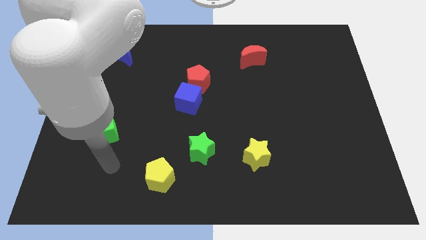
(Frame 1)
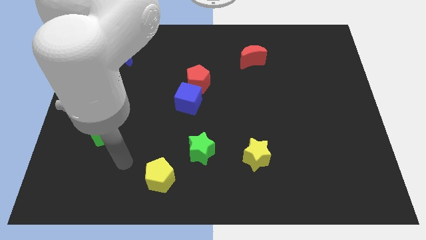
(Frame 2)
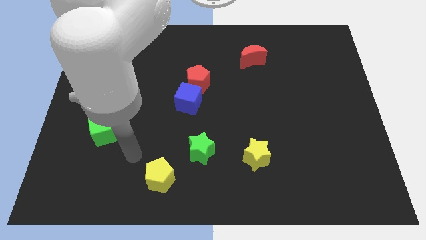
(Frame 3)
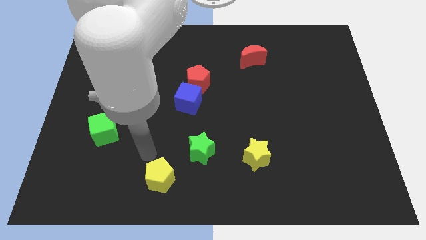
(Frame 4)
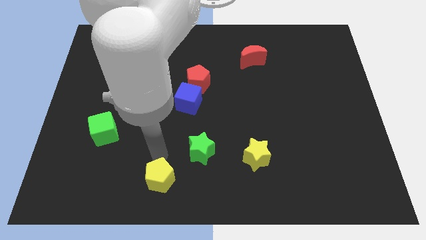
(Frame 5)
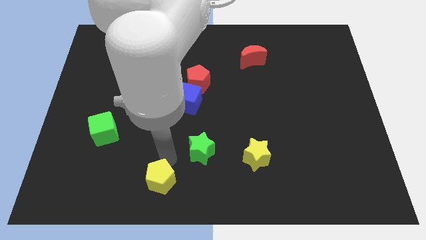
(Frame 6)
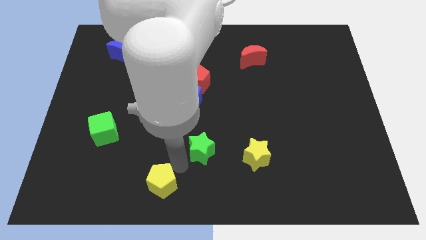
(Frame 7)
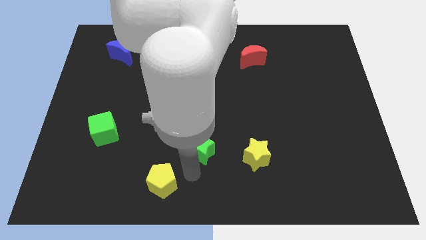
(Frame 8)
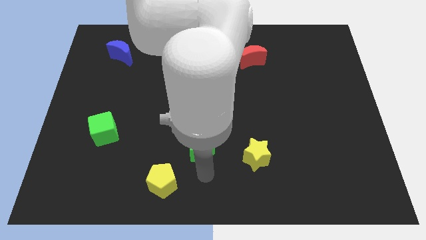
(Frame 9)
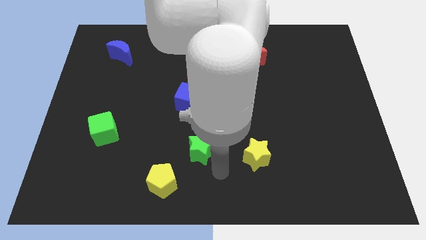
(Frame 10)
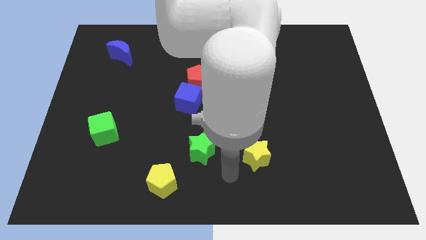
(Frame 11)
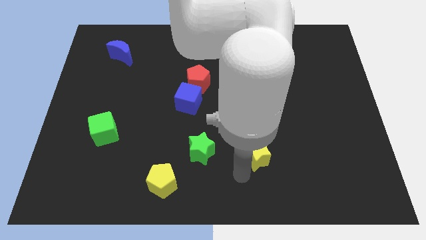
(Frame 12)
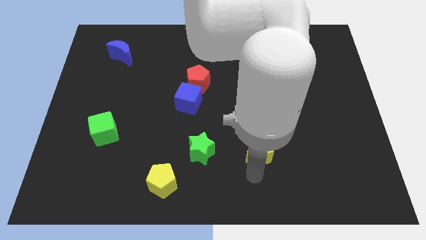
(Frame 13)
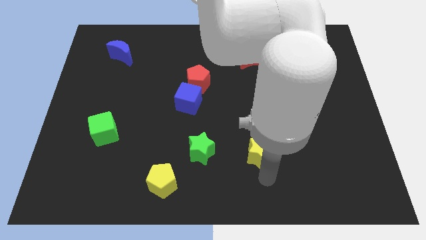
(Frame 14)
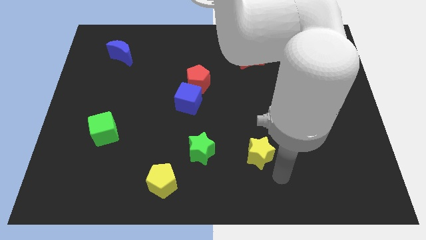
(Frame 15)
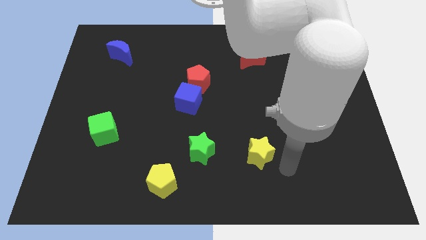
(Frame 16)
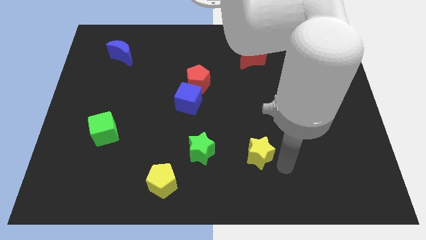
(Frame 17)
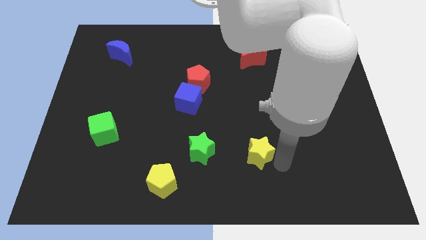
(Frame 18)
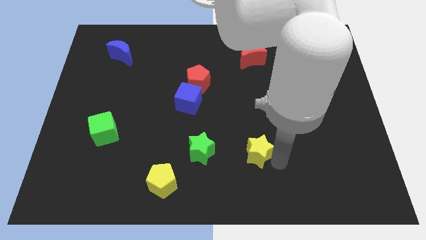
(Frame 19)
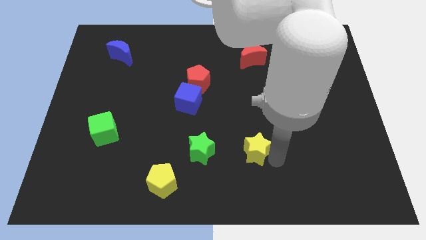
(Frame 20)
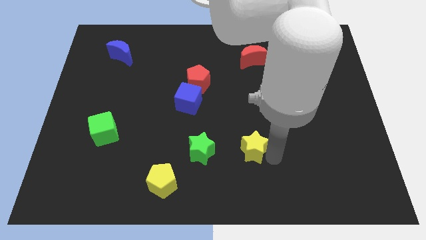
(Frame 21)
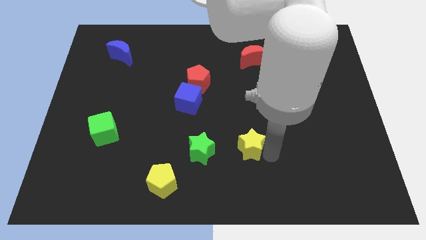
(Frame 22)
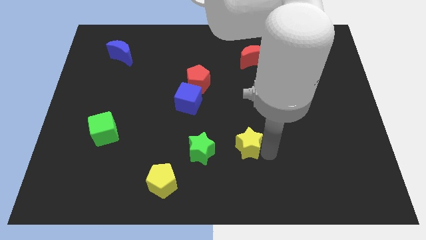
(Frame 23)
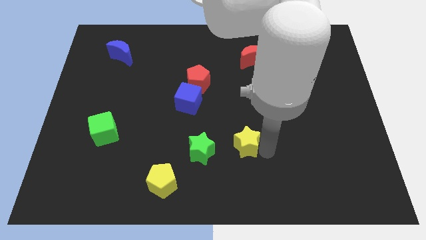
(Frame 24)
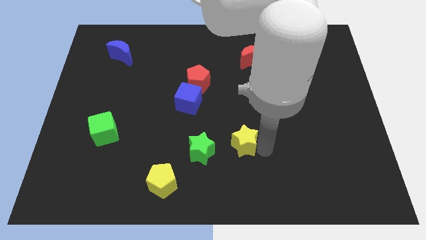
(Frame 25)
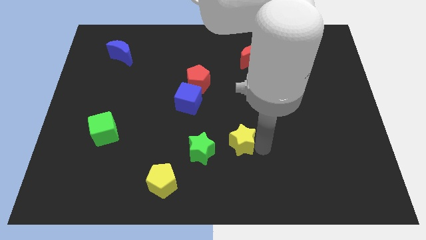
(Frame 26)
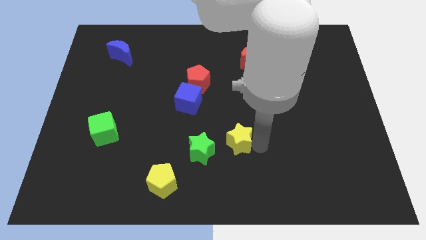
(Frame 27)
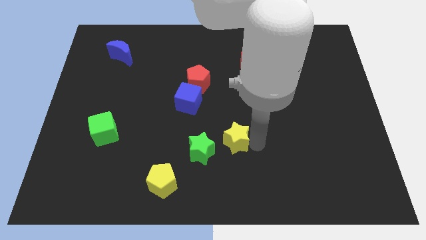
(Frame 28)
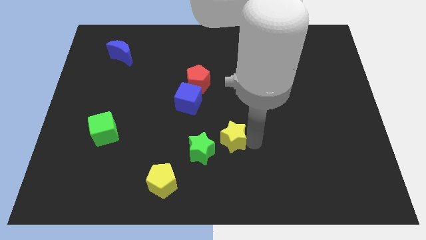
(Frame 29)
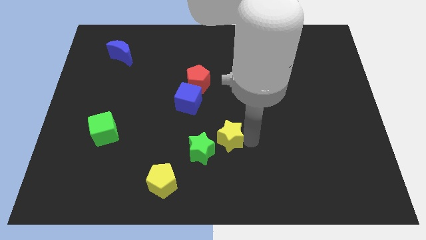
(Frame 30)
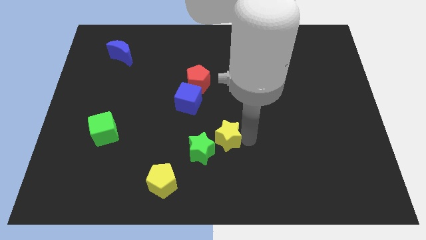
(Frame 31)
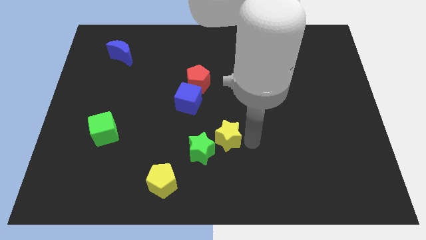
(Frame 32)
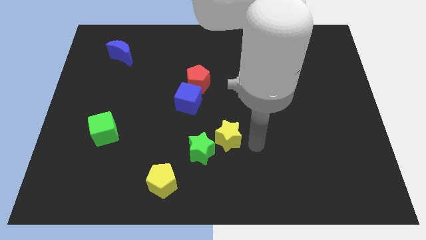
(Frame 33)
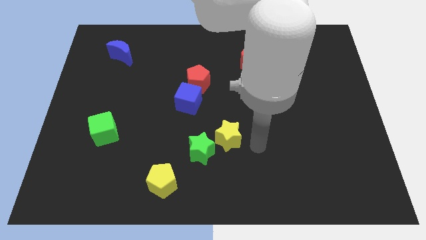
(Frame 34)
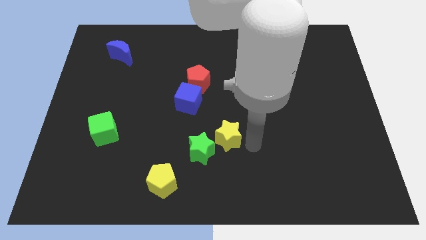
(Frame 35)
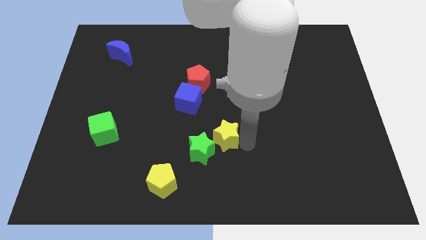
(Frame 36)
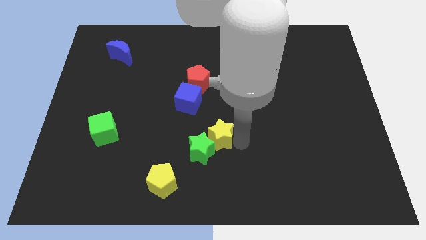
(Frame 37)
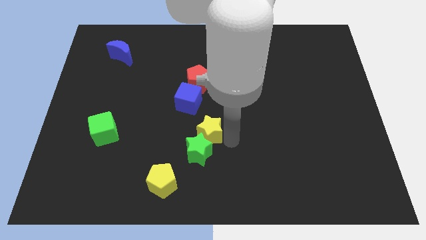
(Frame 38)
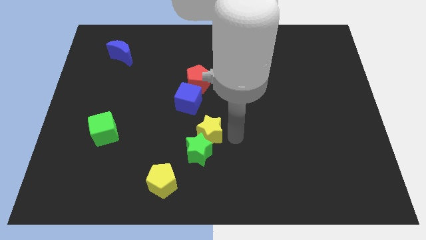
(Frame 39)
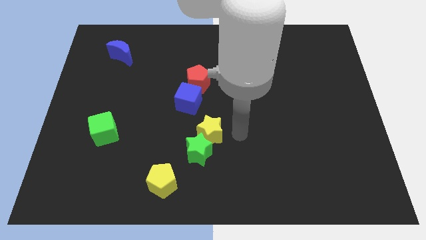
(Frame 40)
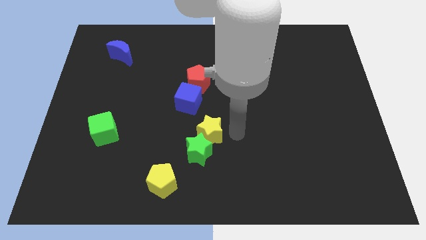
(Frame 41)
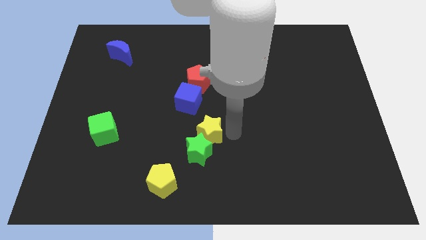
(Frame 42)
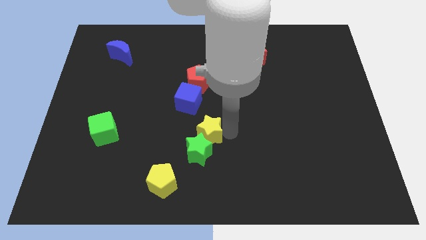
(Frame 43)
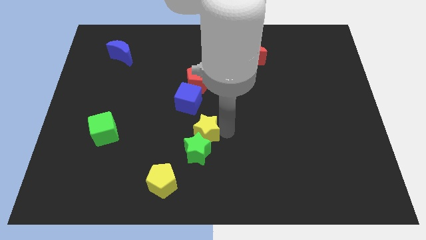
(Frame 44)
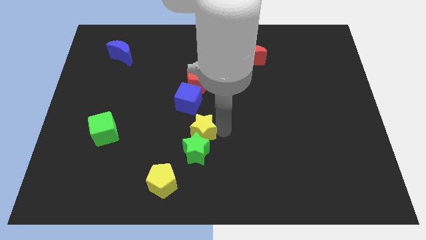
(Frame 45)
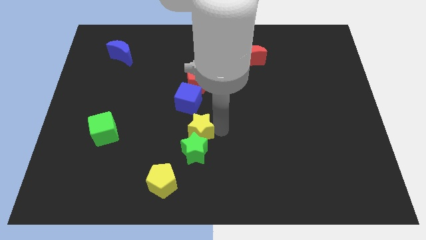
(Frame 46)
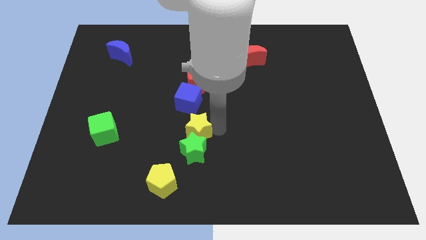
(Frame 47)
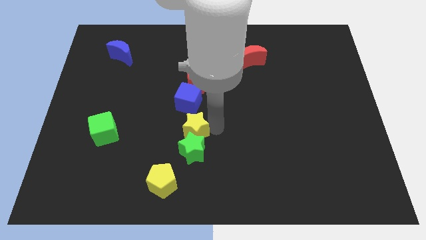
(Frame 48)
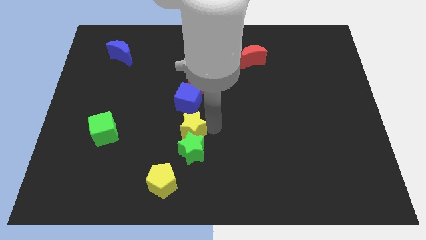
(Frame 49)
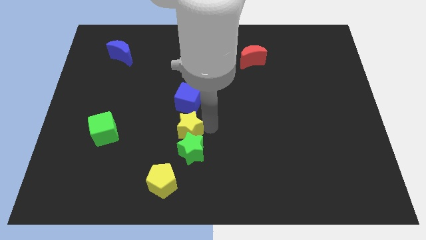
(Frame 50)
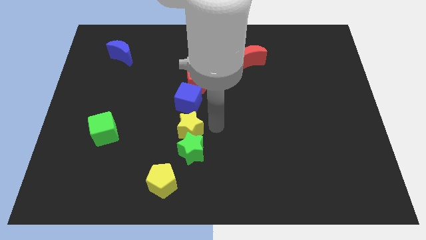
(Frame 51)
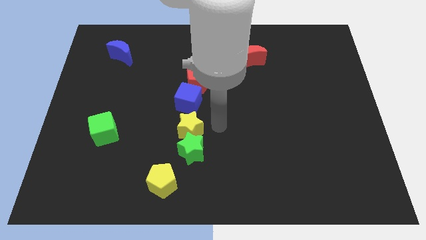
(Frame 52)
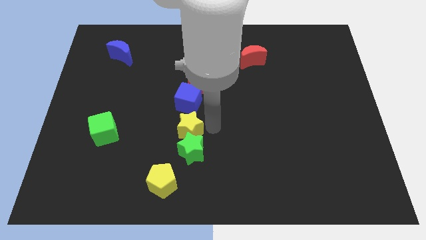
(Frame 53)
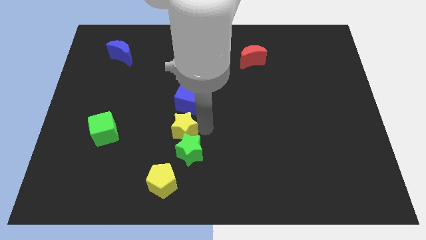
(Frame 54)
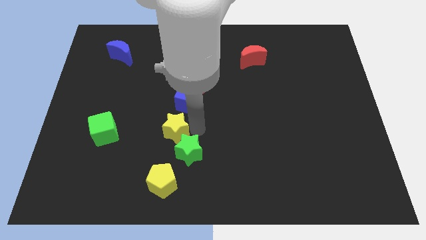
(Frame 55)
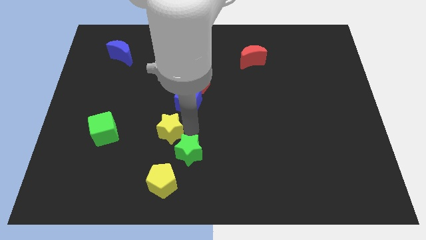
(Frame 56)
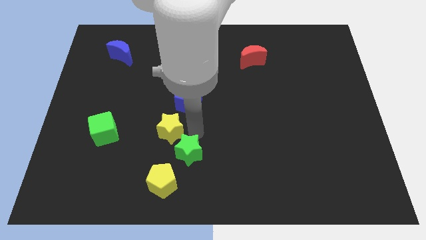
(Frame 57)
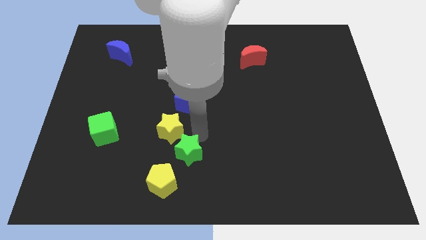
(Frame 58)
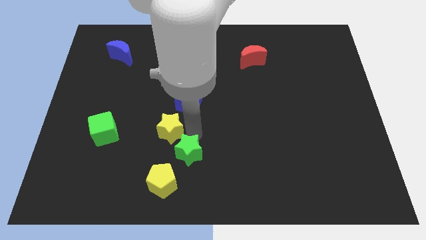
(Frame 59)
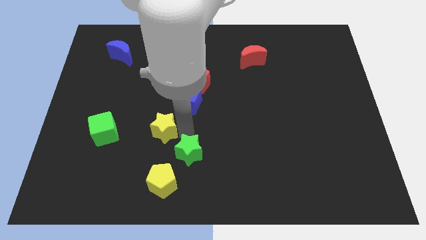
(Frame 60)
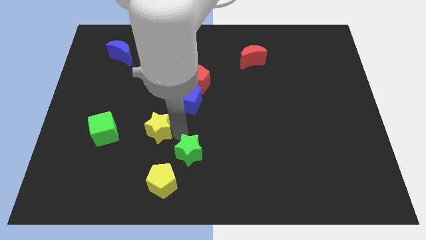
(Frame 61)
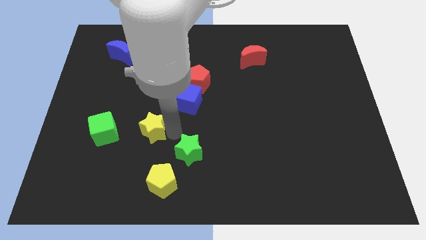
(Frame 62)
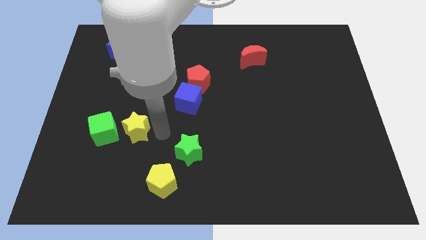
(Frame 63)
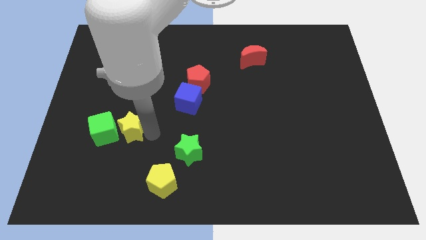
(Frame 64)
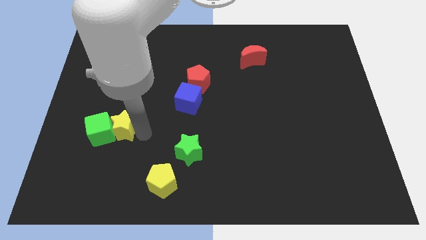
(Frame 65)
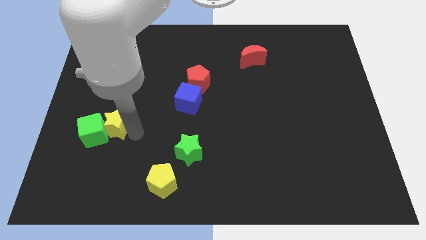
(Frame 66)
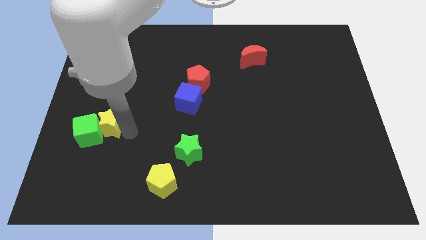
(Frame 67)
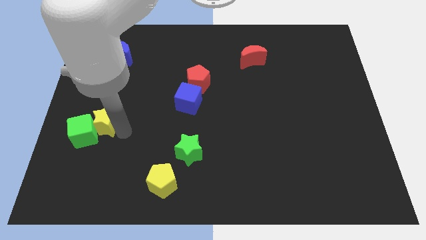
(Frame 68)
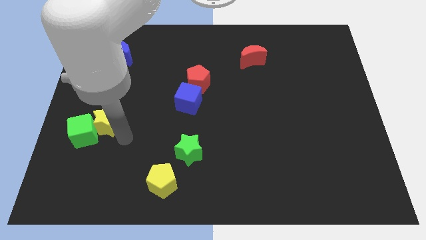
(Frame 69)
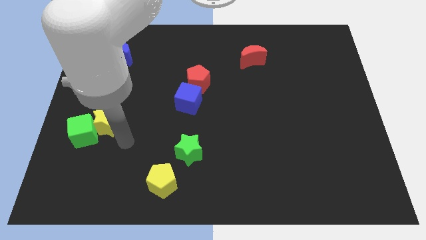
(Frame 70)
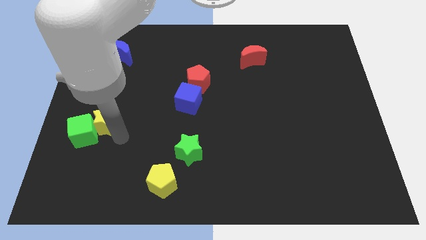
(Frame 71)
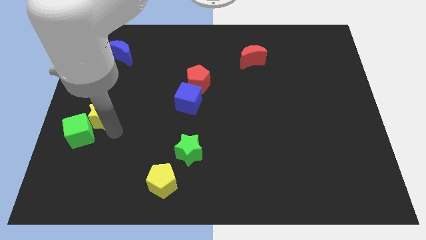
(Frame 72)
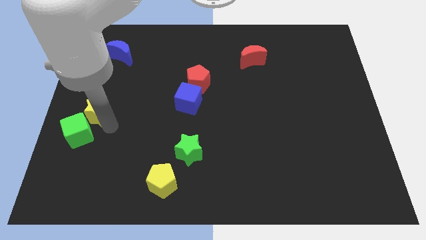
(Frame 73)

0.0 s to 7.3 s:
move the yellow star to the left side of the board
